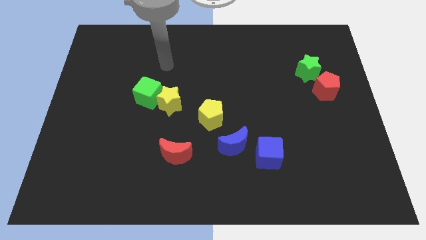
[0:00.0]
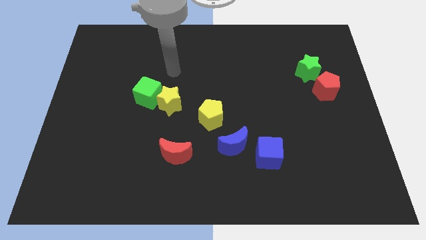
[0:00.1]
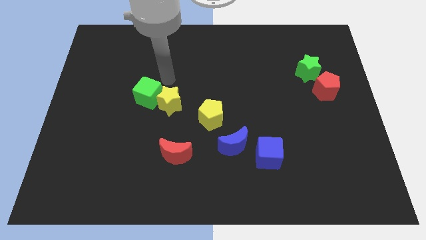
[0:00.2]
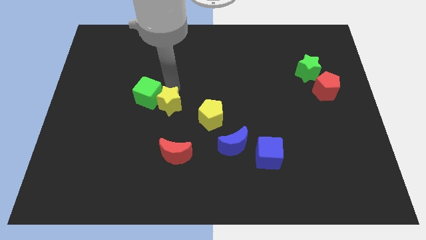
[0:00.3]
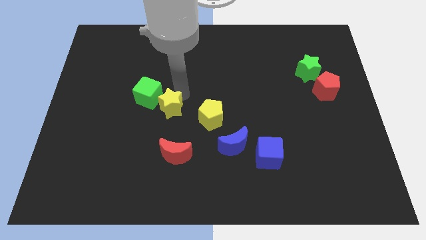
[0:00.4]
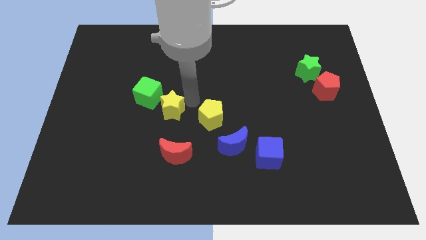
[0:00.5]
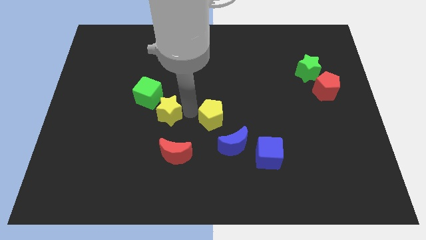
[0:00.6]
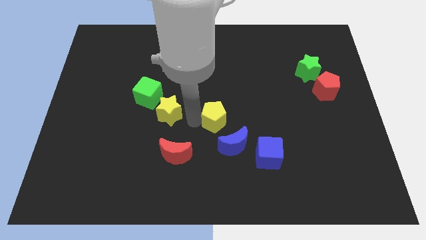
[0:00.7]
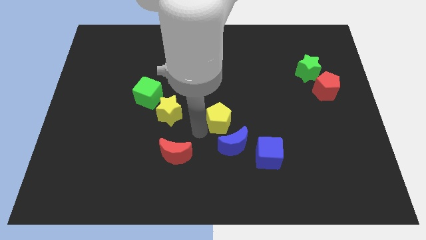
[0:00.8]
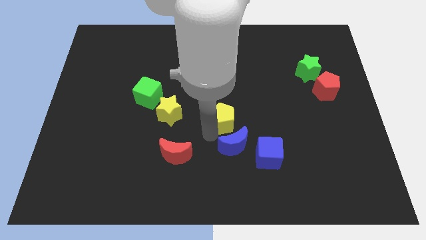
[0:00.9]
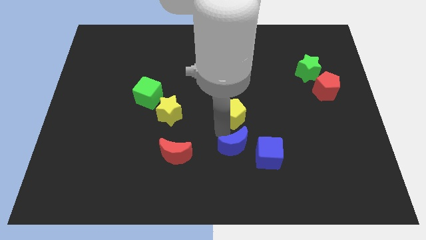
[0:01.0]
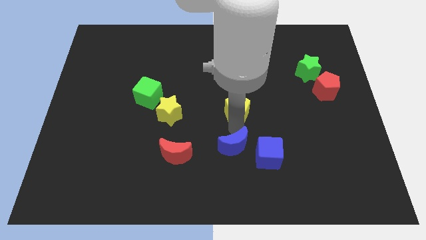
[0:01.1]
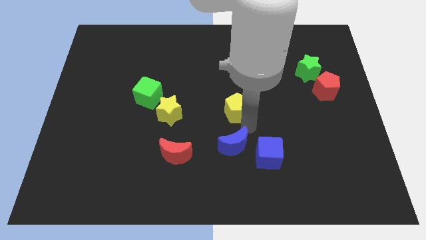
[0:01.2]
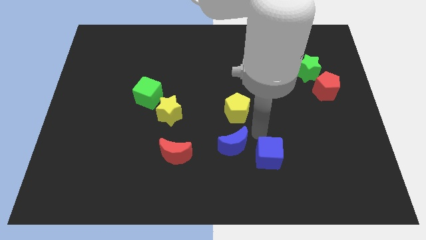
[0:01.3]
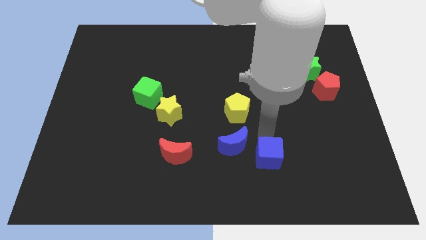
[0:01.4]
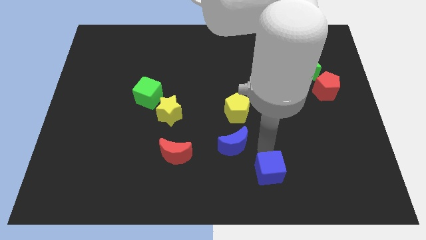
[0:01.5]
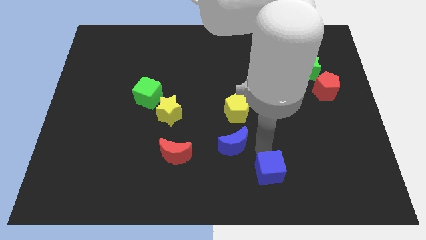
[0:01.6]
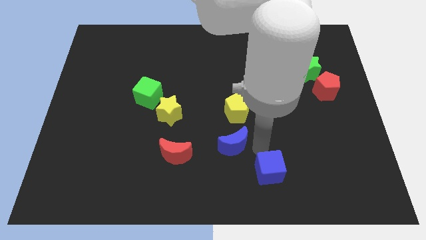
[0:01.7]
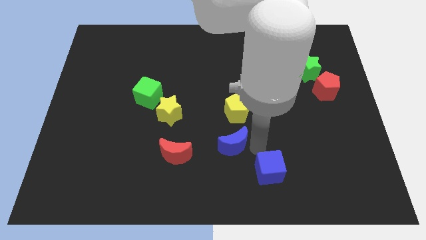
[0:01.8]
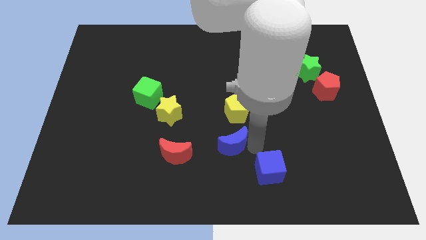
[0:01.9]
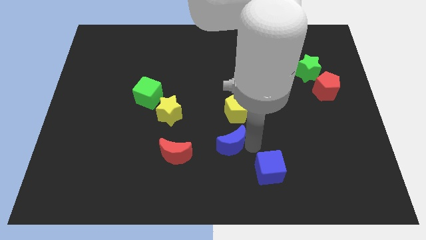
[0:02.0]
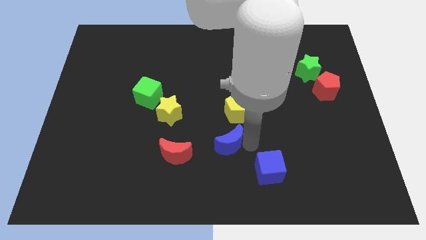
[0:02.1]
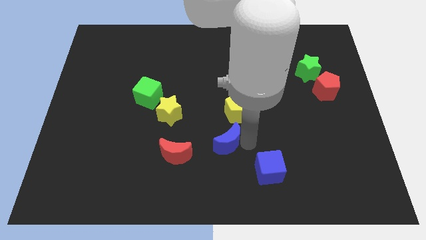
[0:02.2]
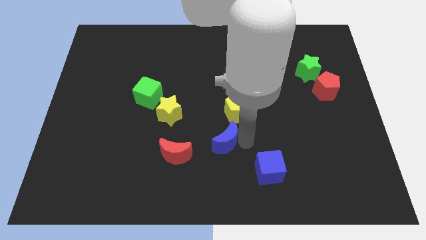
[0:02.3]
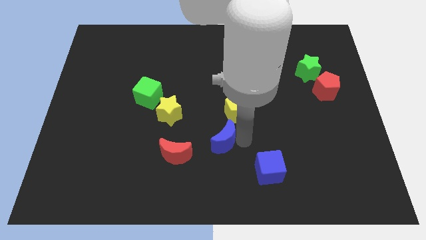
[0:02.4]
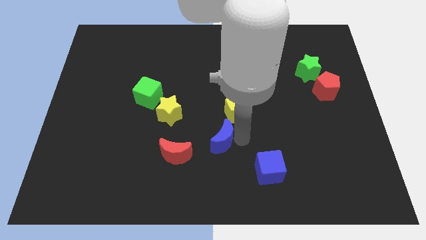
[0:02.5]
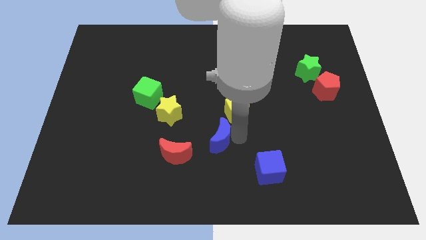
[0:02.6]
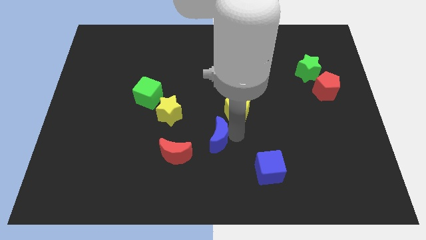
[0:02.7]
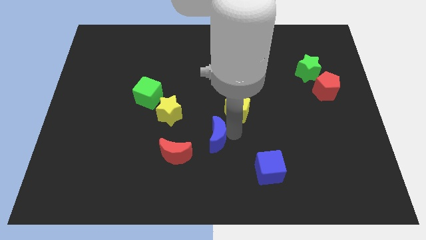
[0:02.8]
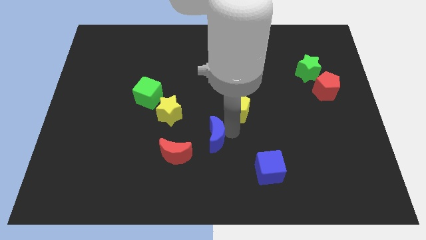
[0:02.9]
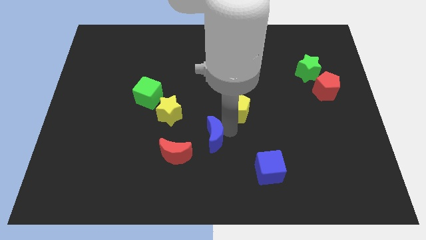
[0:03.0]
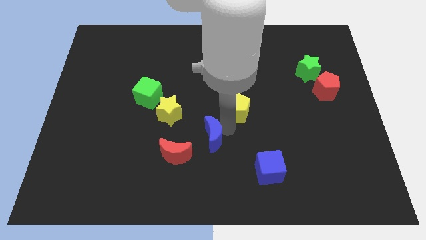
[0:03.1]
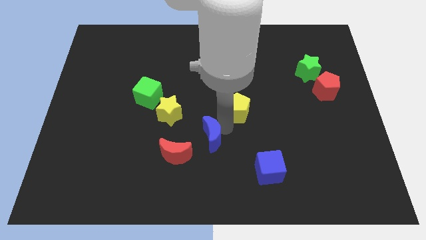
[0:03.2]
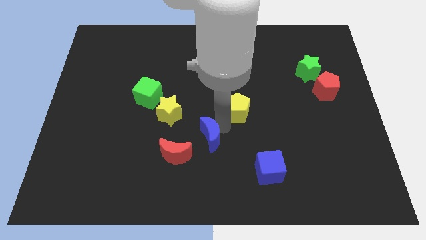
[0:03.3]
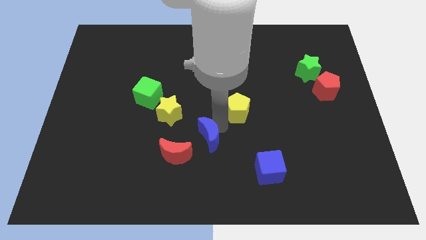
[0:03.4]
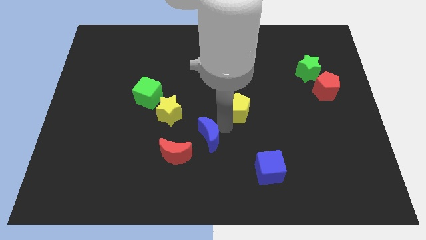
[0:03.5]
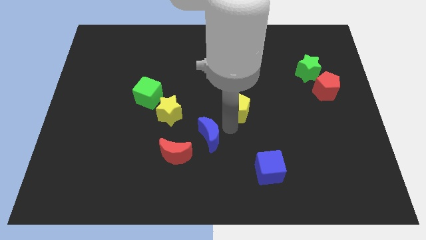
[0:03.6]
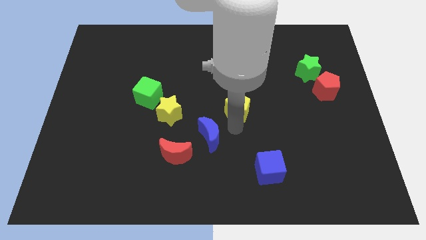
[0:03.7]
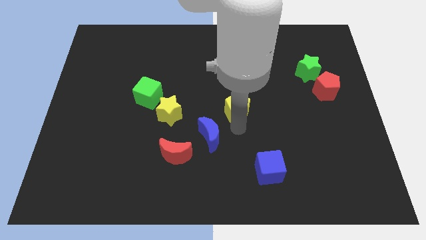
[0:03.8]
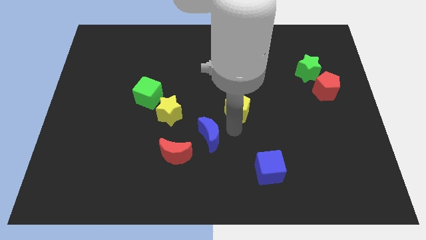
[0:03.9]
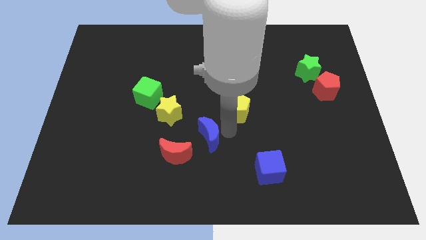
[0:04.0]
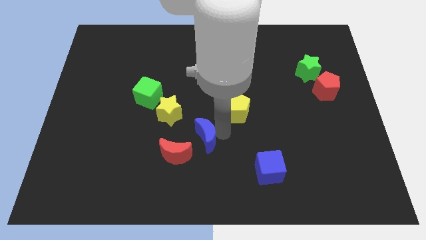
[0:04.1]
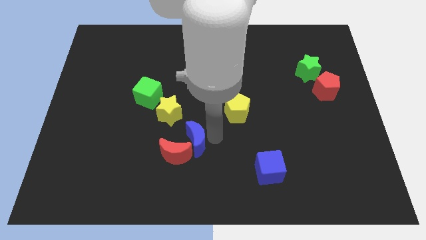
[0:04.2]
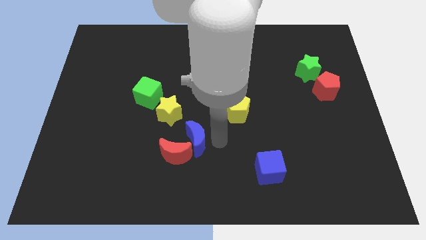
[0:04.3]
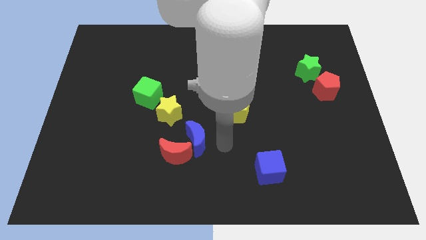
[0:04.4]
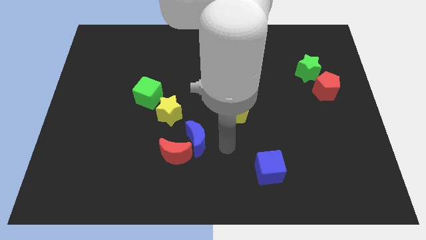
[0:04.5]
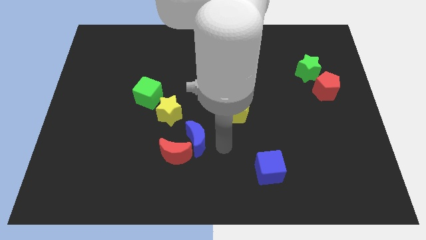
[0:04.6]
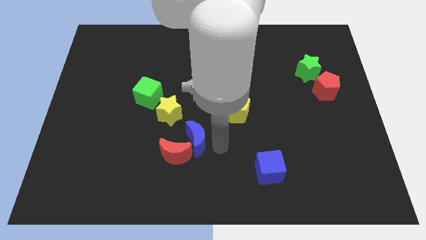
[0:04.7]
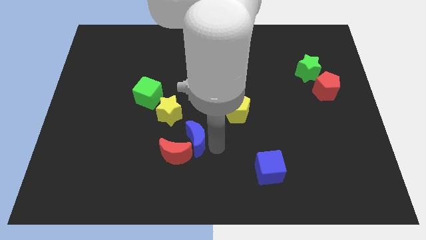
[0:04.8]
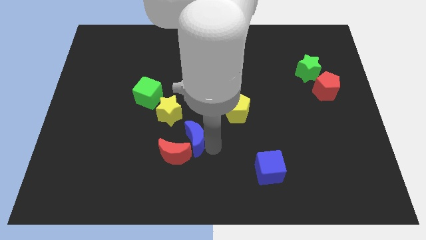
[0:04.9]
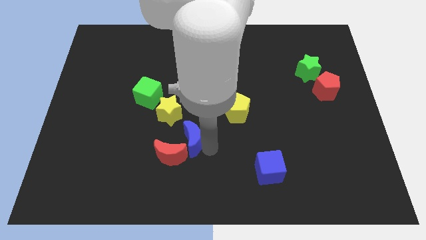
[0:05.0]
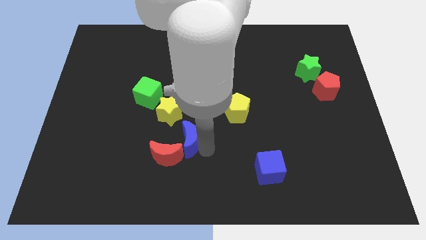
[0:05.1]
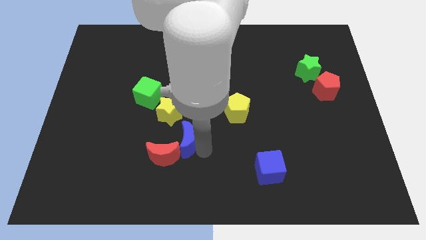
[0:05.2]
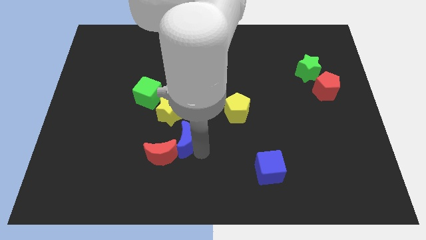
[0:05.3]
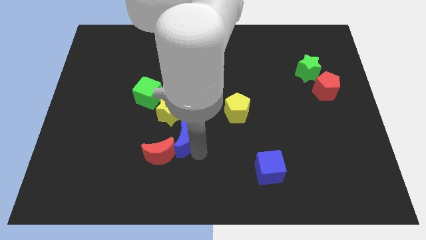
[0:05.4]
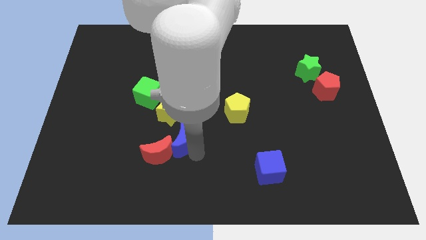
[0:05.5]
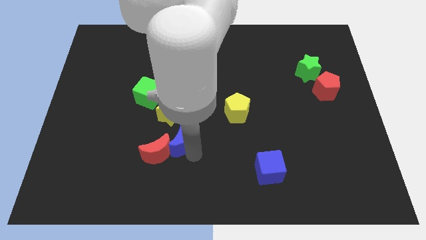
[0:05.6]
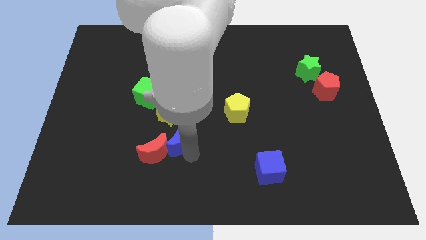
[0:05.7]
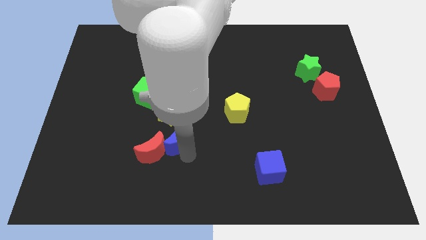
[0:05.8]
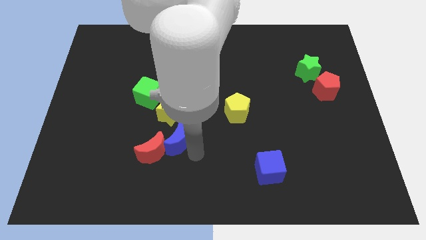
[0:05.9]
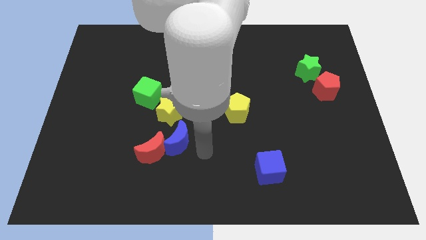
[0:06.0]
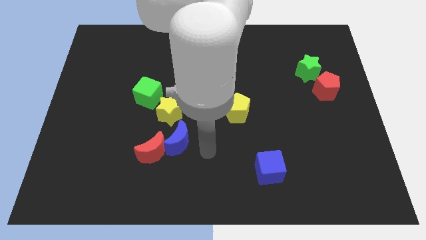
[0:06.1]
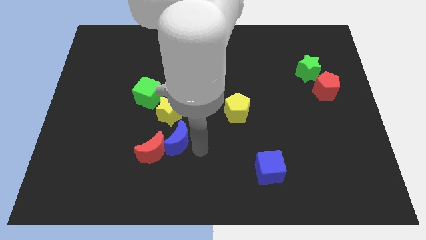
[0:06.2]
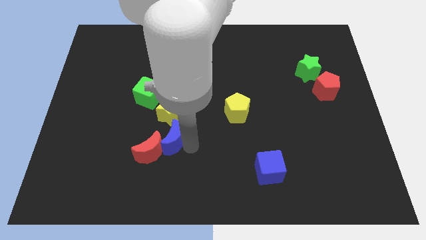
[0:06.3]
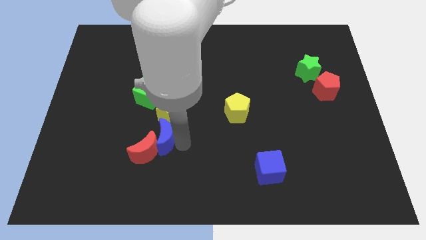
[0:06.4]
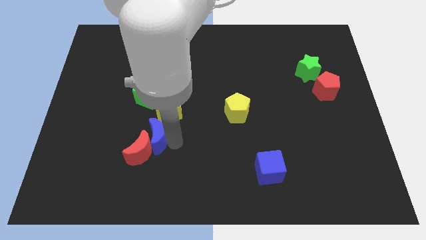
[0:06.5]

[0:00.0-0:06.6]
slide the blue moon to the bottom side of the green cube

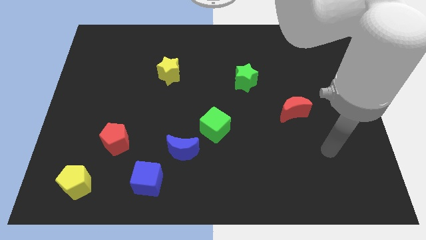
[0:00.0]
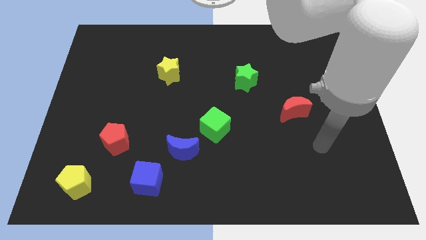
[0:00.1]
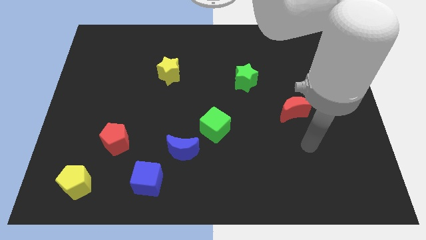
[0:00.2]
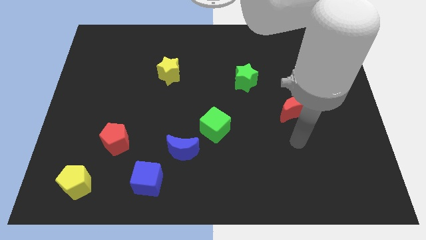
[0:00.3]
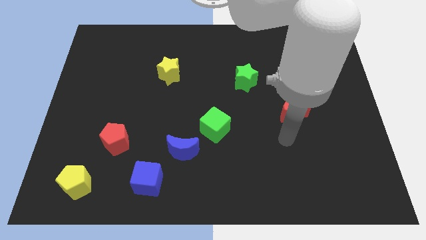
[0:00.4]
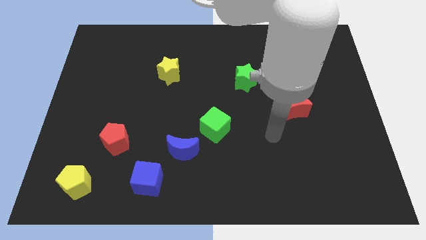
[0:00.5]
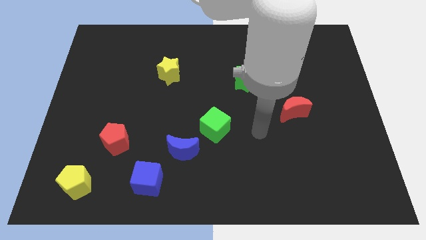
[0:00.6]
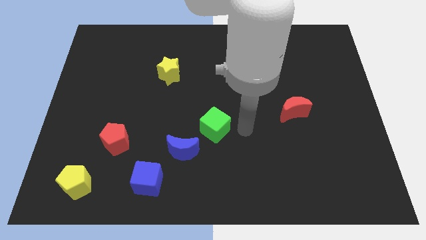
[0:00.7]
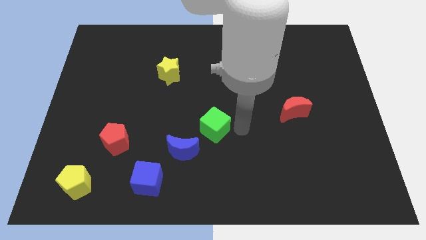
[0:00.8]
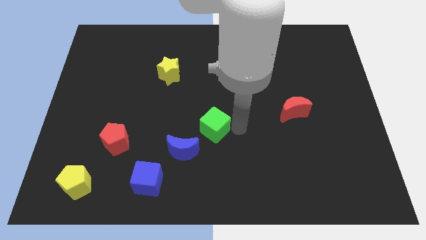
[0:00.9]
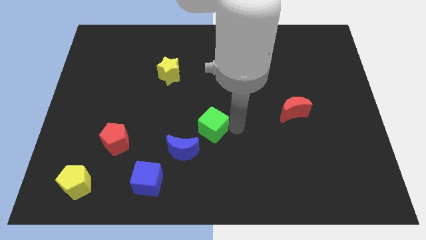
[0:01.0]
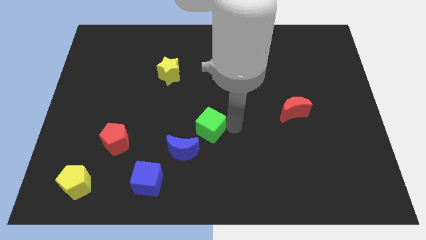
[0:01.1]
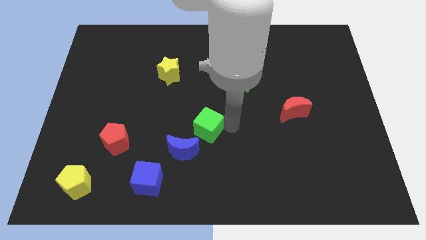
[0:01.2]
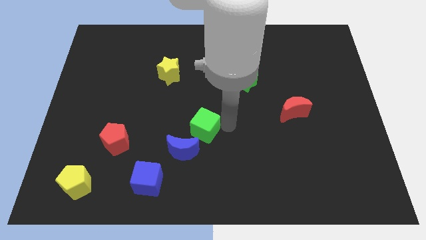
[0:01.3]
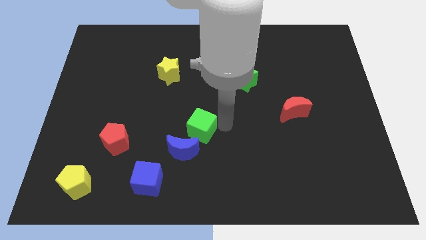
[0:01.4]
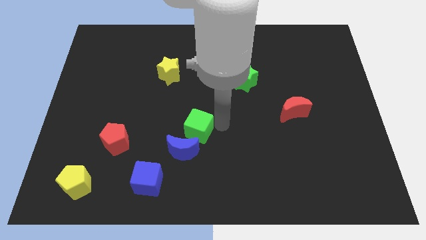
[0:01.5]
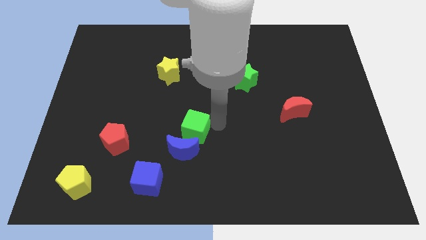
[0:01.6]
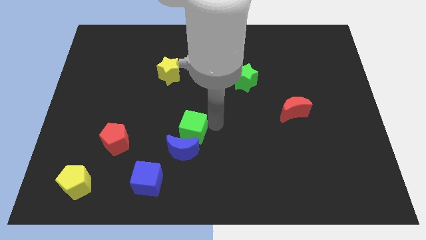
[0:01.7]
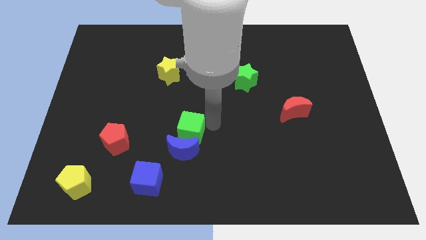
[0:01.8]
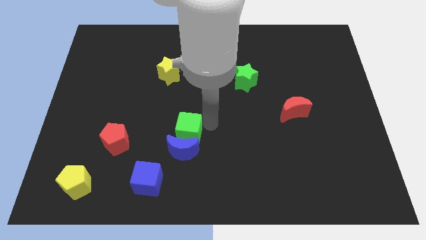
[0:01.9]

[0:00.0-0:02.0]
move the green cube to the right of the red pentagon
